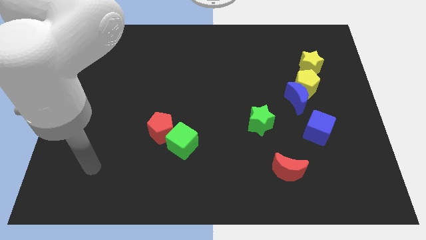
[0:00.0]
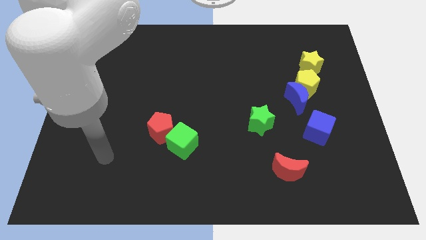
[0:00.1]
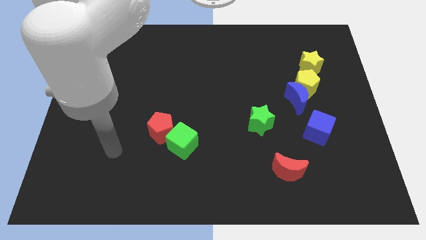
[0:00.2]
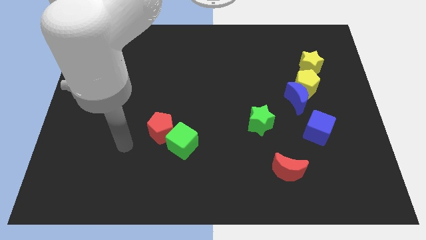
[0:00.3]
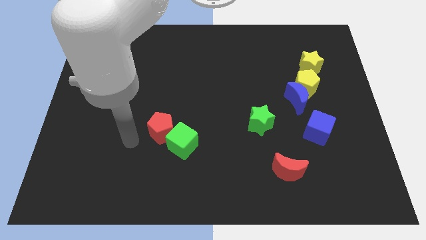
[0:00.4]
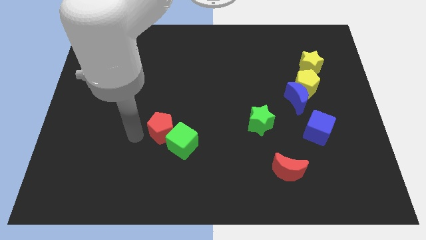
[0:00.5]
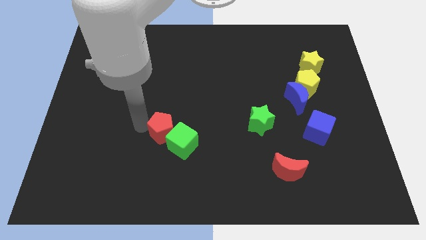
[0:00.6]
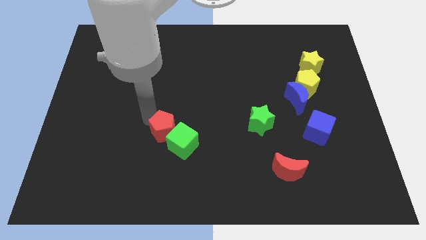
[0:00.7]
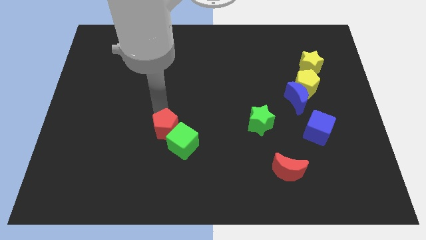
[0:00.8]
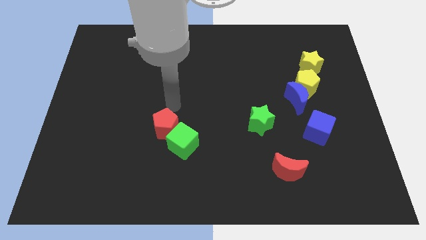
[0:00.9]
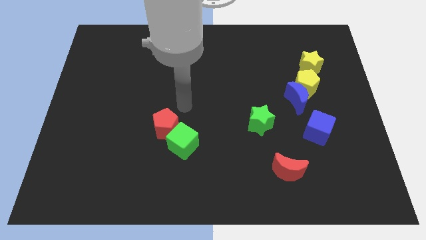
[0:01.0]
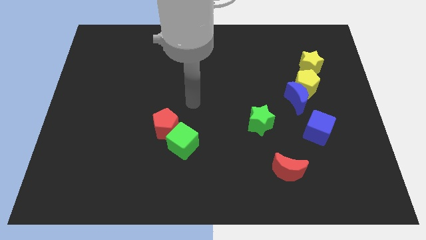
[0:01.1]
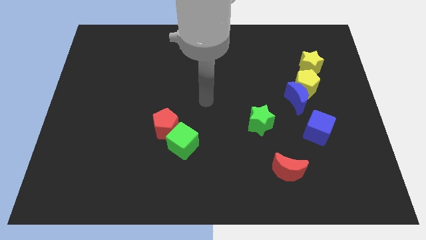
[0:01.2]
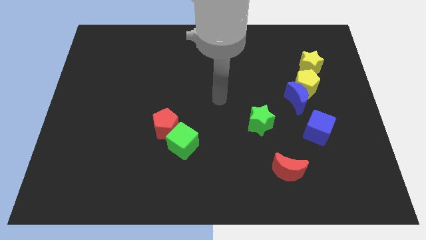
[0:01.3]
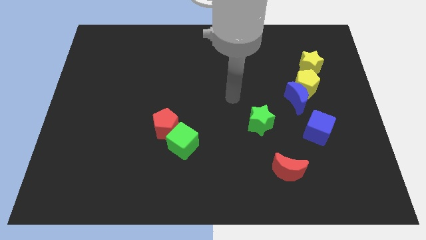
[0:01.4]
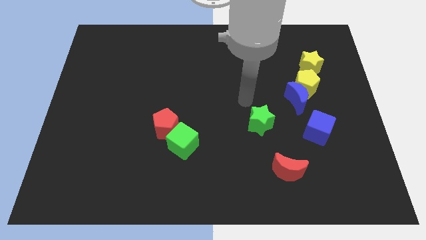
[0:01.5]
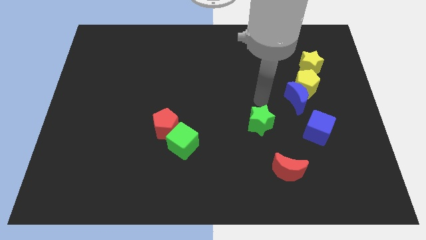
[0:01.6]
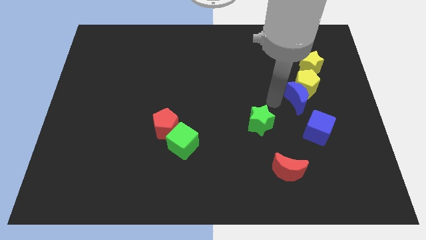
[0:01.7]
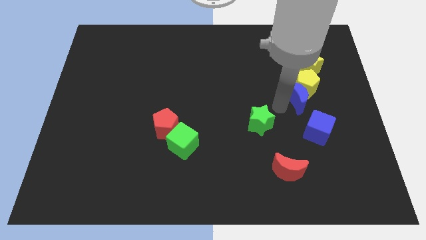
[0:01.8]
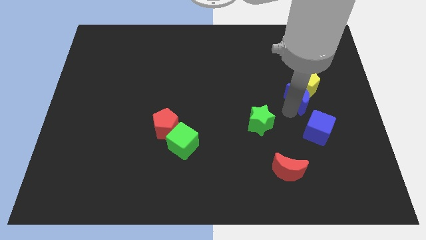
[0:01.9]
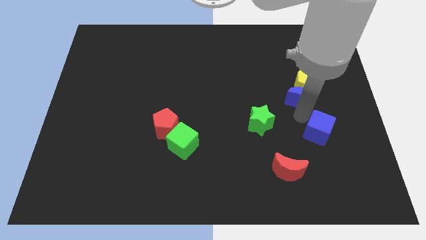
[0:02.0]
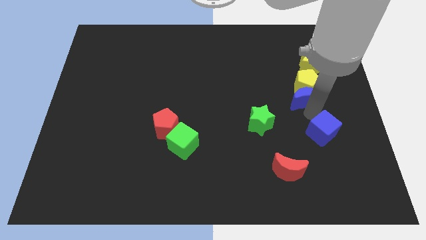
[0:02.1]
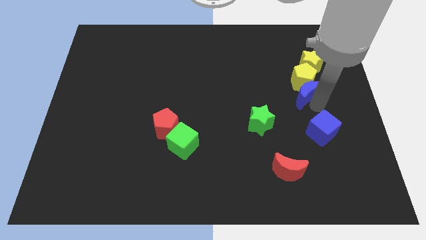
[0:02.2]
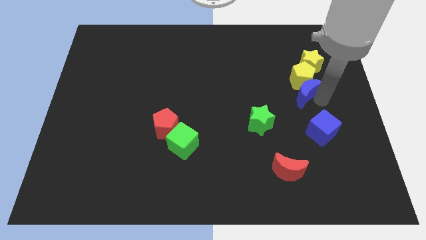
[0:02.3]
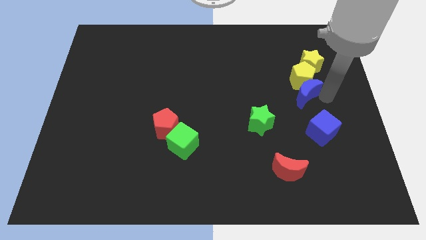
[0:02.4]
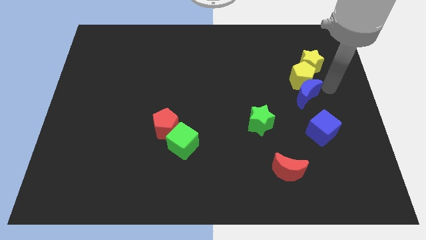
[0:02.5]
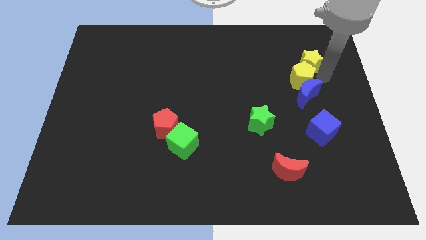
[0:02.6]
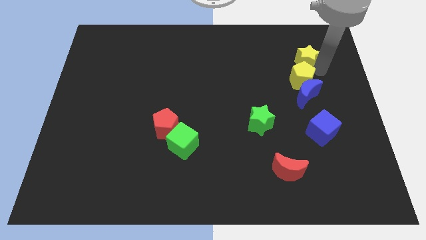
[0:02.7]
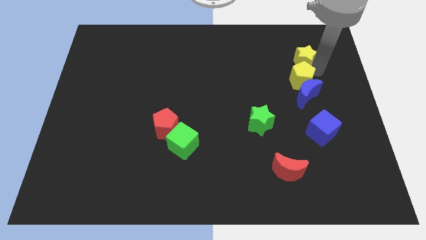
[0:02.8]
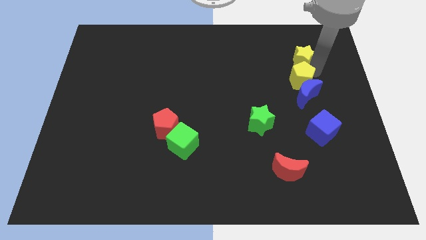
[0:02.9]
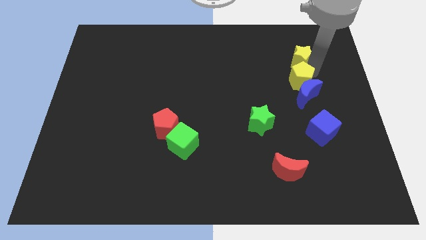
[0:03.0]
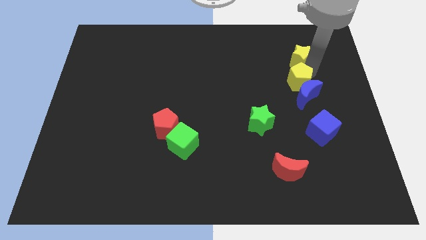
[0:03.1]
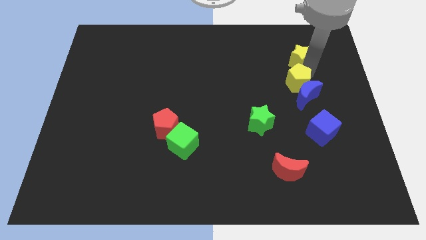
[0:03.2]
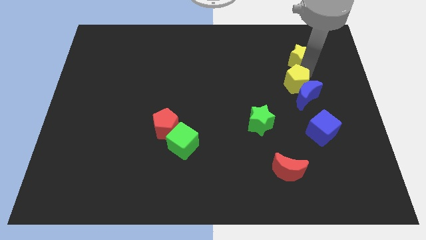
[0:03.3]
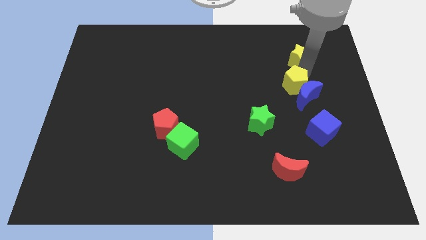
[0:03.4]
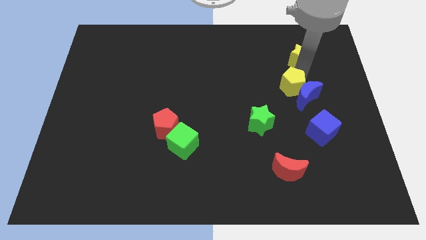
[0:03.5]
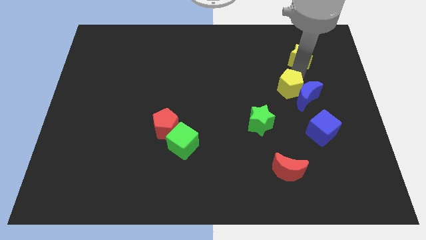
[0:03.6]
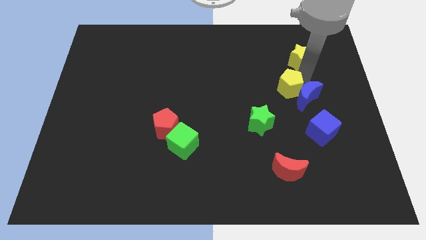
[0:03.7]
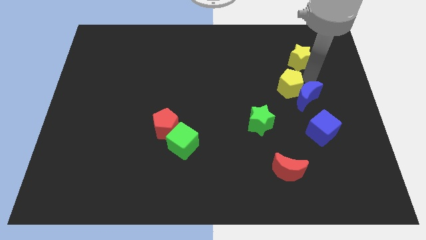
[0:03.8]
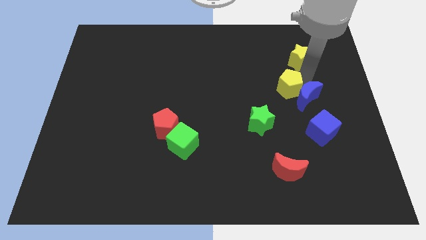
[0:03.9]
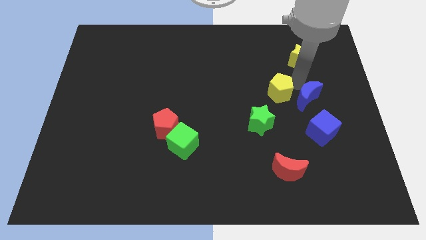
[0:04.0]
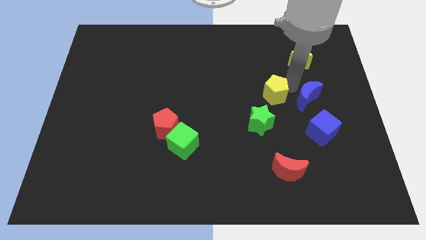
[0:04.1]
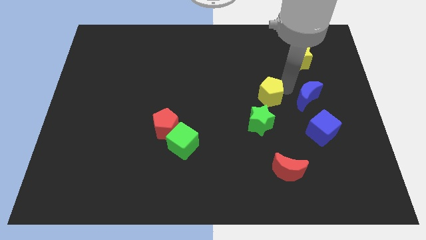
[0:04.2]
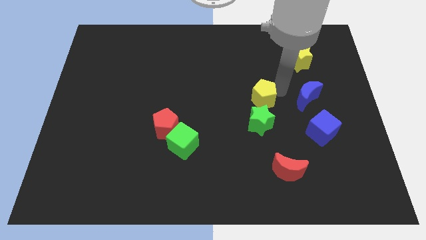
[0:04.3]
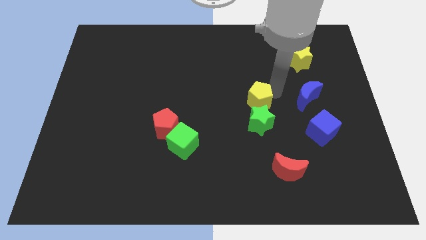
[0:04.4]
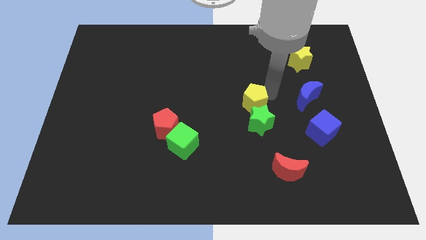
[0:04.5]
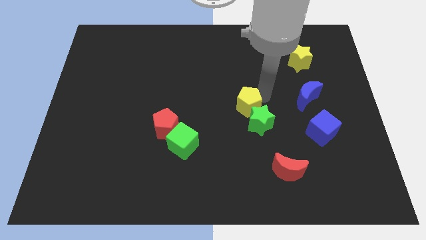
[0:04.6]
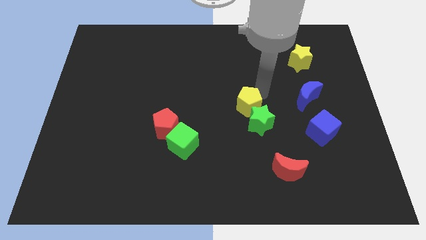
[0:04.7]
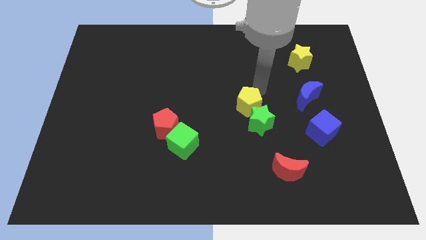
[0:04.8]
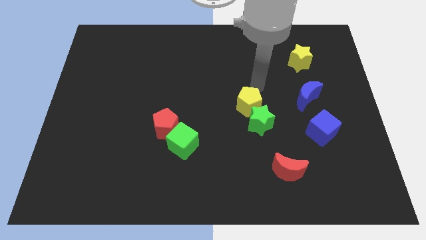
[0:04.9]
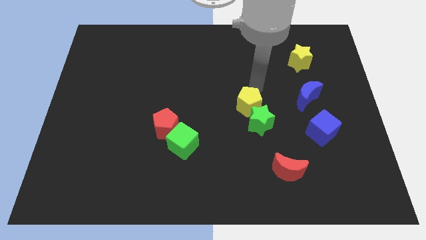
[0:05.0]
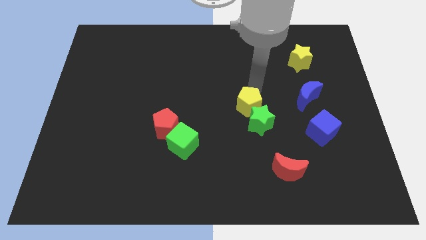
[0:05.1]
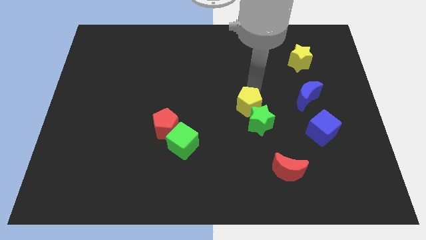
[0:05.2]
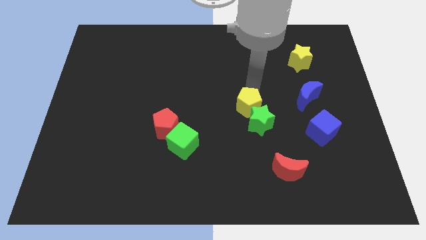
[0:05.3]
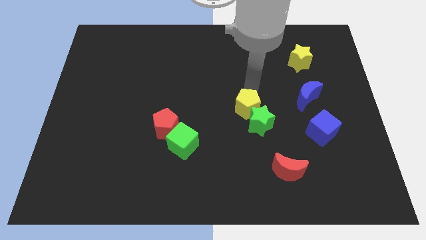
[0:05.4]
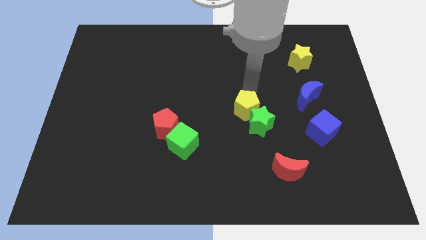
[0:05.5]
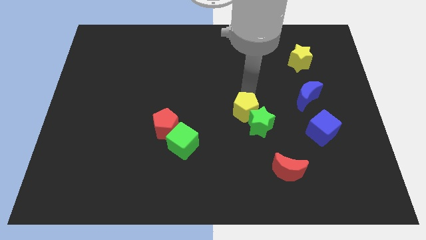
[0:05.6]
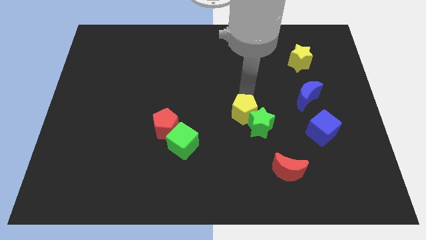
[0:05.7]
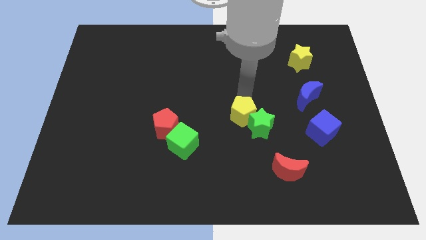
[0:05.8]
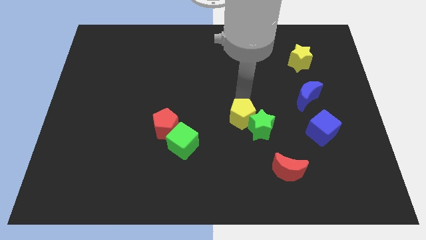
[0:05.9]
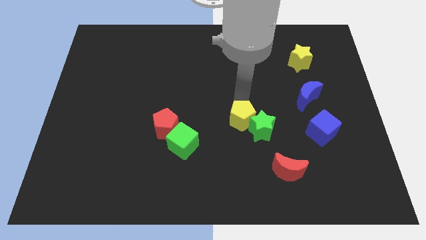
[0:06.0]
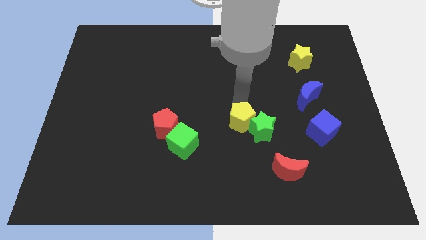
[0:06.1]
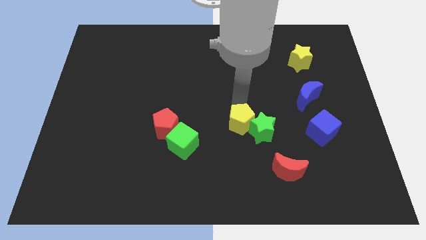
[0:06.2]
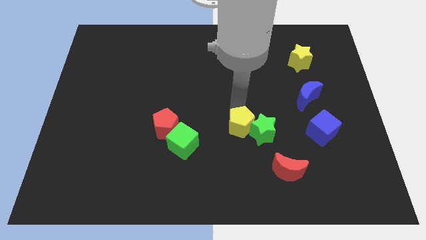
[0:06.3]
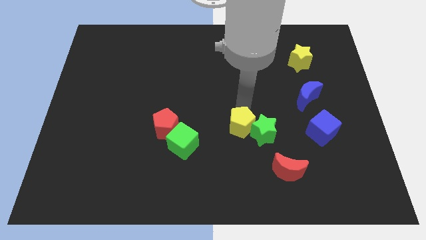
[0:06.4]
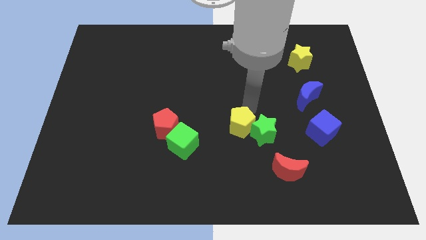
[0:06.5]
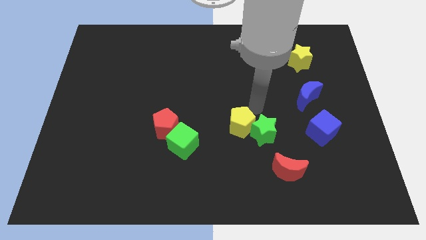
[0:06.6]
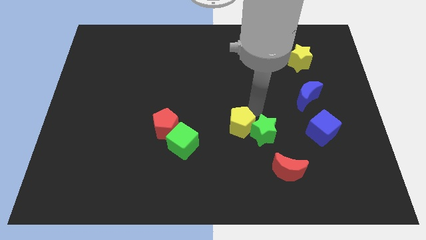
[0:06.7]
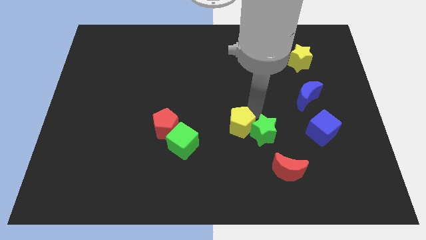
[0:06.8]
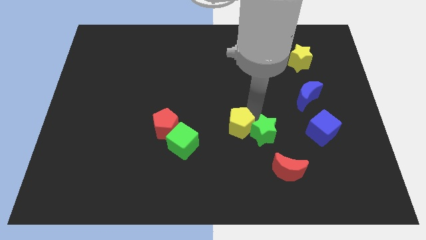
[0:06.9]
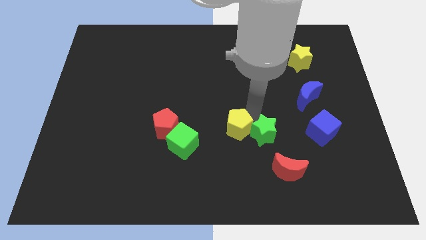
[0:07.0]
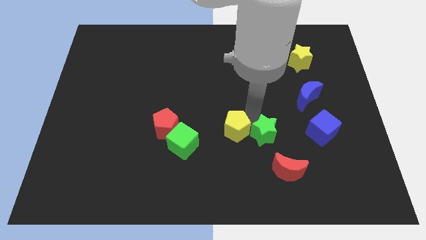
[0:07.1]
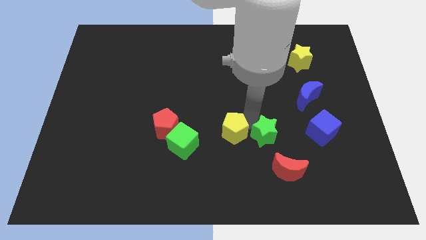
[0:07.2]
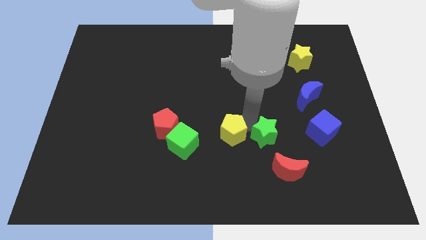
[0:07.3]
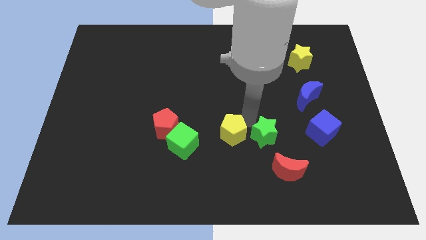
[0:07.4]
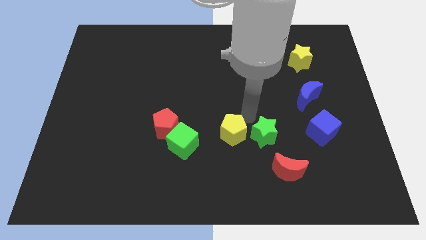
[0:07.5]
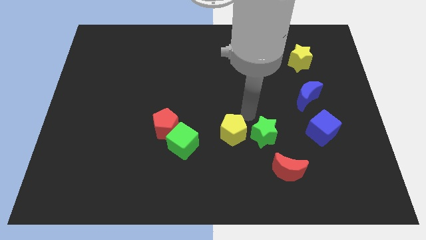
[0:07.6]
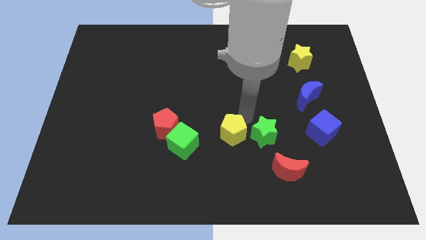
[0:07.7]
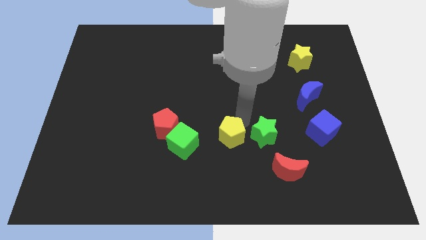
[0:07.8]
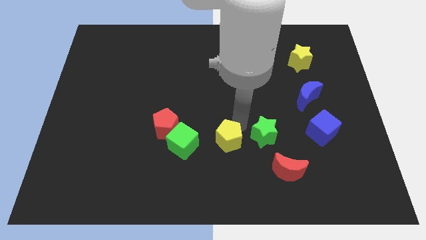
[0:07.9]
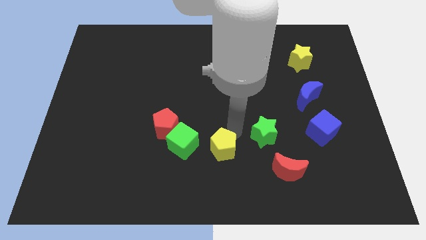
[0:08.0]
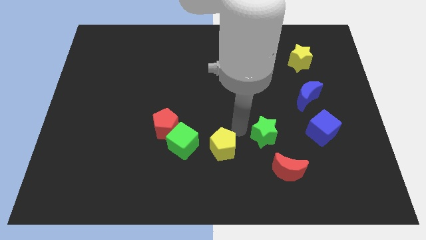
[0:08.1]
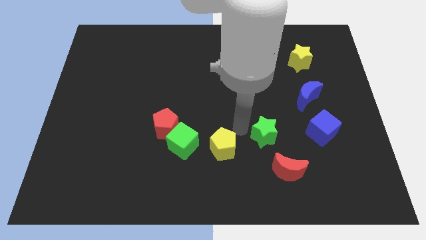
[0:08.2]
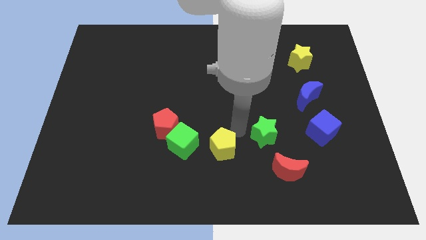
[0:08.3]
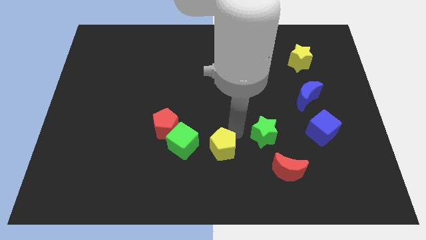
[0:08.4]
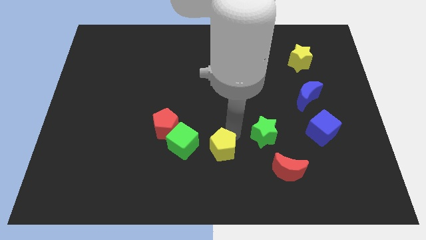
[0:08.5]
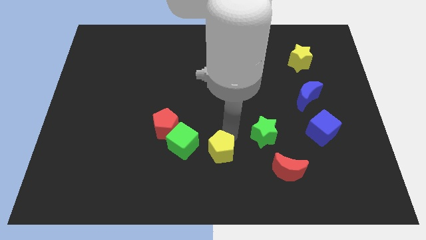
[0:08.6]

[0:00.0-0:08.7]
move the yellow pentagon diagonally down and to the right of the green cube
